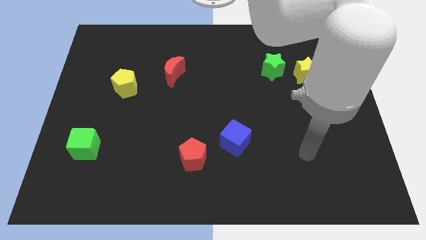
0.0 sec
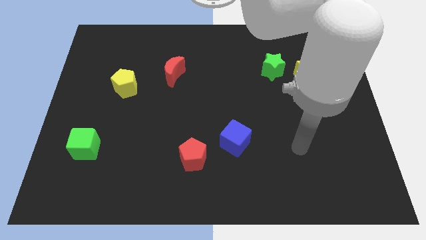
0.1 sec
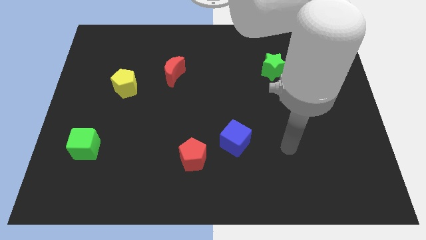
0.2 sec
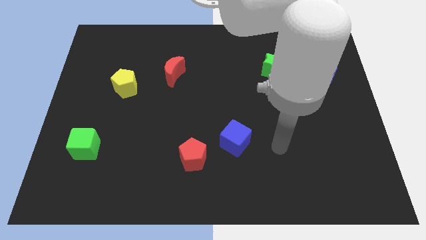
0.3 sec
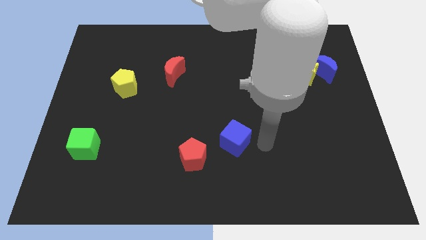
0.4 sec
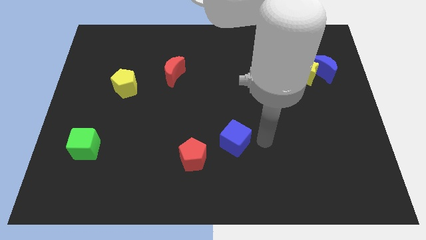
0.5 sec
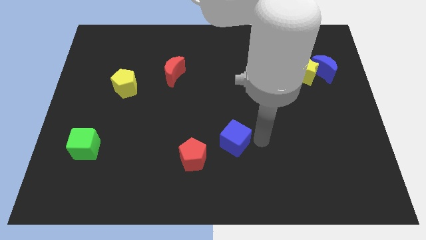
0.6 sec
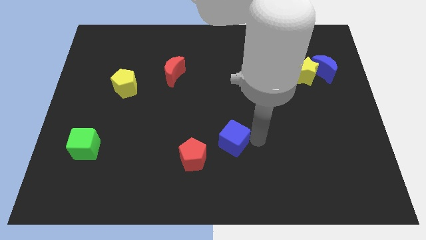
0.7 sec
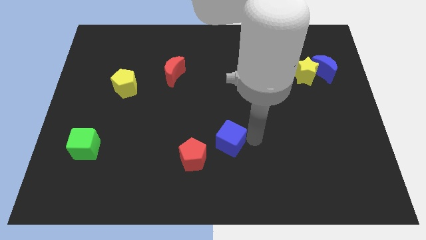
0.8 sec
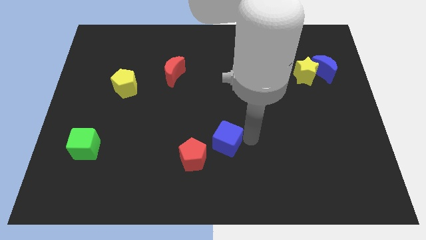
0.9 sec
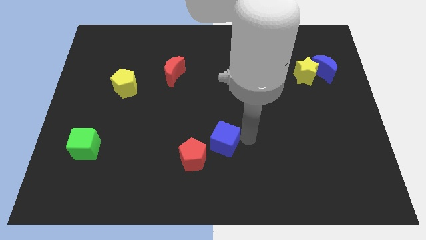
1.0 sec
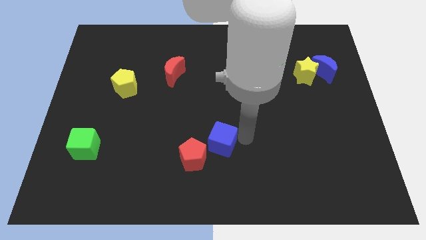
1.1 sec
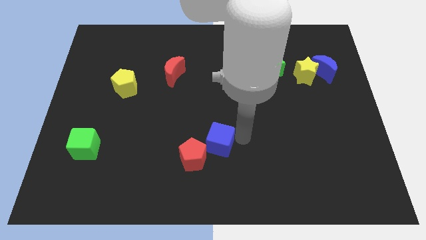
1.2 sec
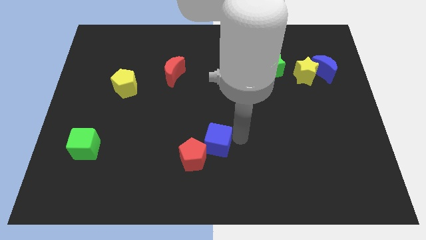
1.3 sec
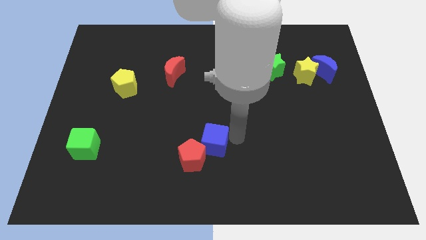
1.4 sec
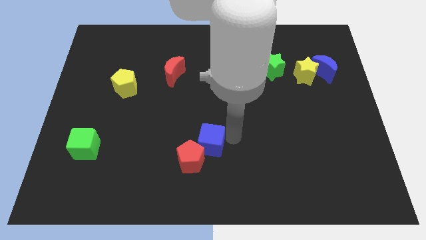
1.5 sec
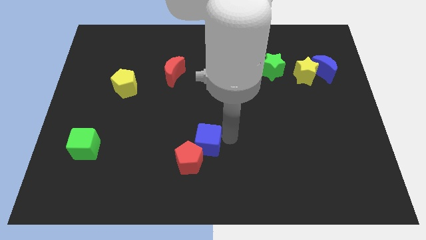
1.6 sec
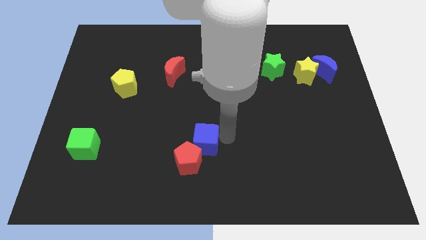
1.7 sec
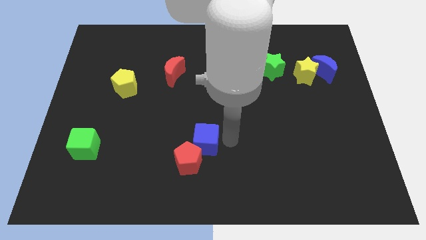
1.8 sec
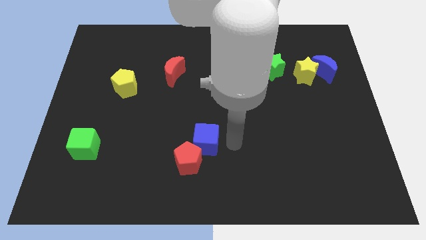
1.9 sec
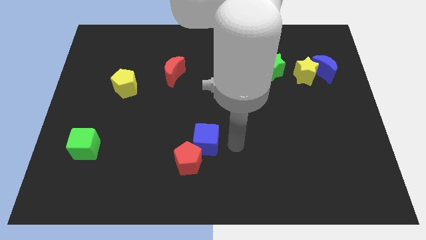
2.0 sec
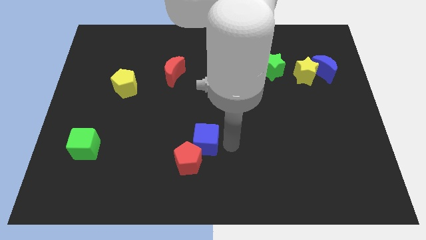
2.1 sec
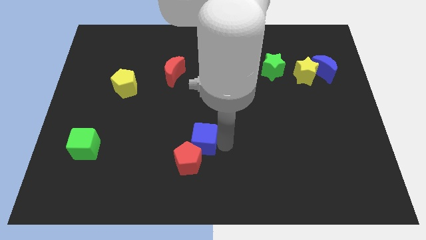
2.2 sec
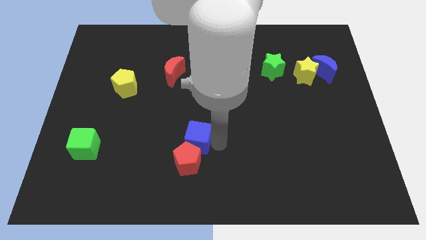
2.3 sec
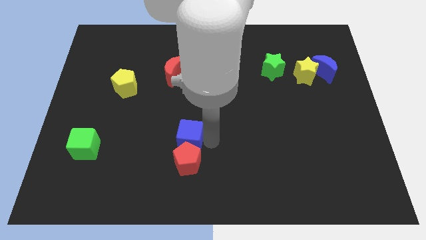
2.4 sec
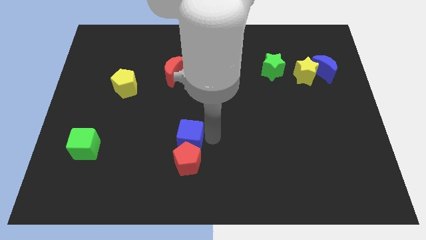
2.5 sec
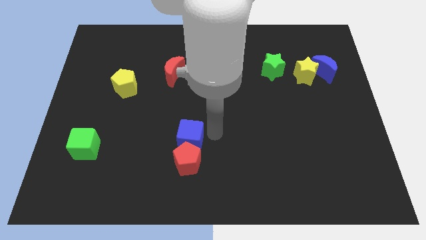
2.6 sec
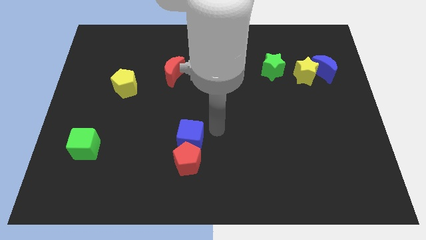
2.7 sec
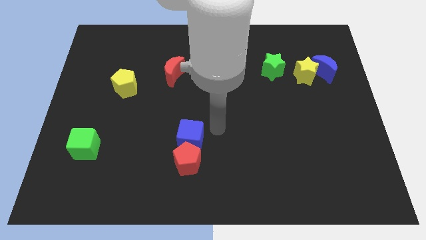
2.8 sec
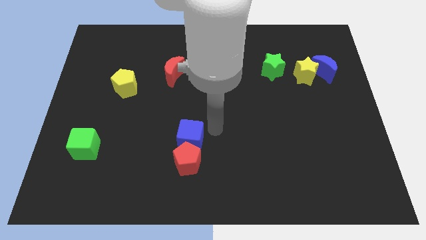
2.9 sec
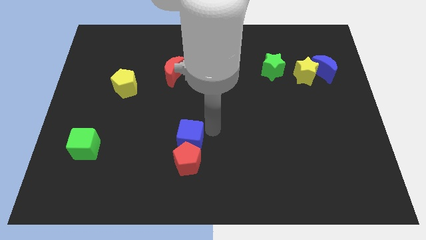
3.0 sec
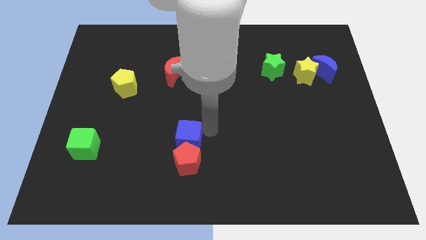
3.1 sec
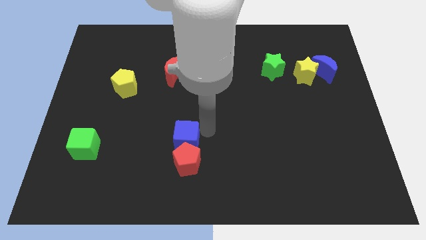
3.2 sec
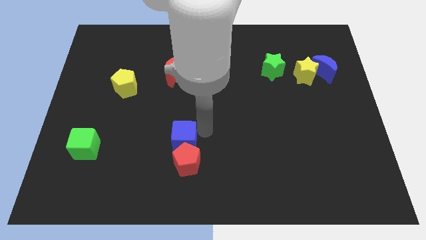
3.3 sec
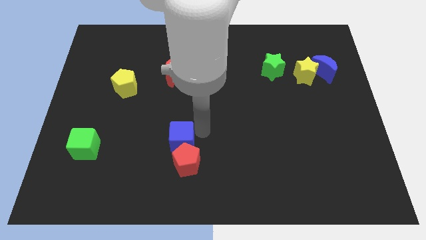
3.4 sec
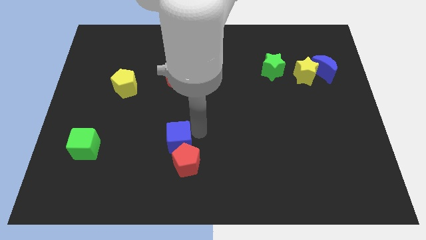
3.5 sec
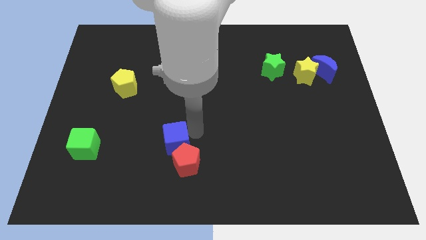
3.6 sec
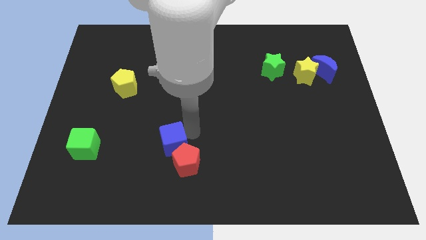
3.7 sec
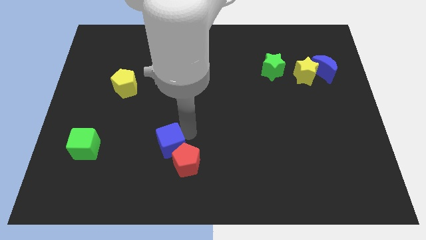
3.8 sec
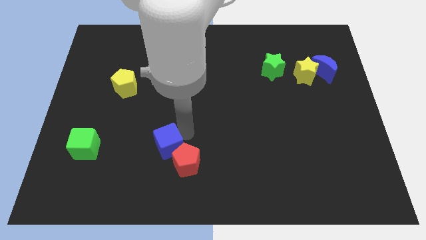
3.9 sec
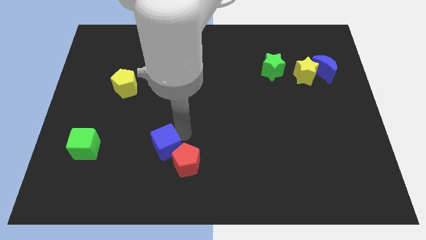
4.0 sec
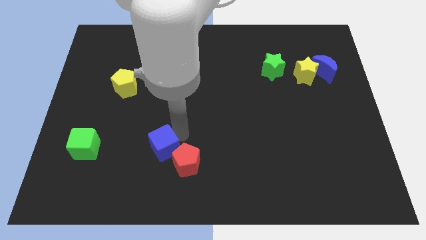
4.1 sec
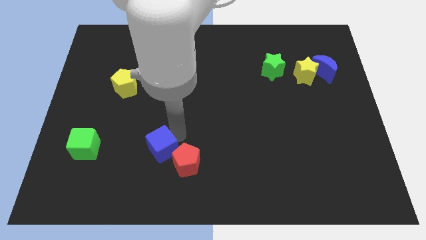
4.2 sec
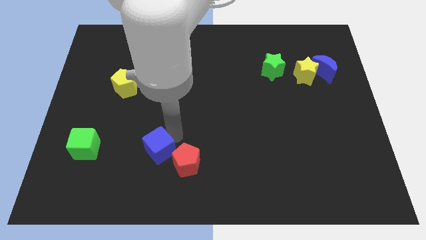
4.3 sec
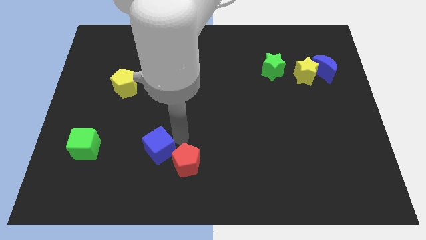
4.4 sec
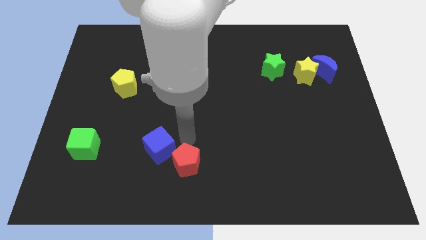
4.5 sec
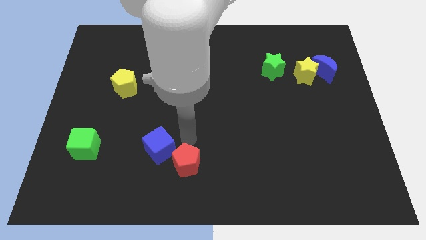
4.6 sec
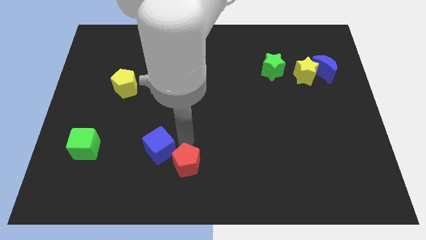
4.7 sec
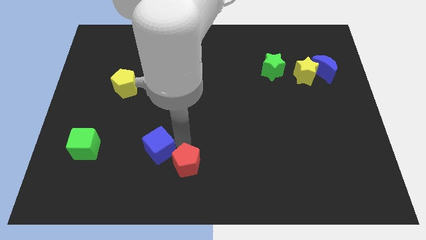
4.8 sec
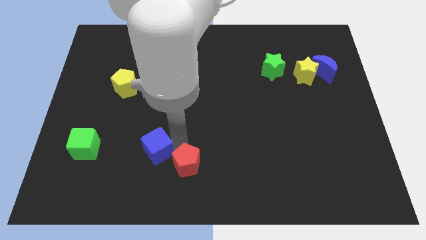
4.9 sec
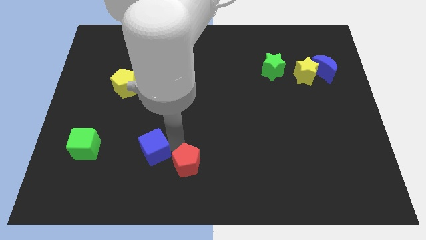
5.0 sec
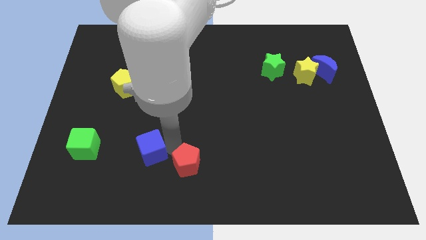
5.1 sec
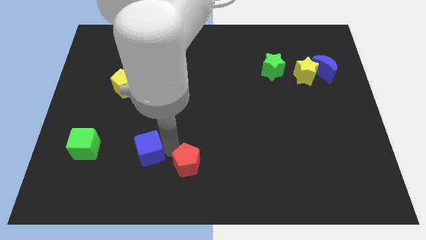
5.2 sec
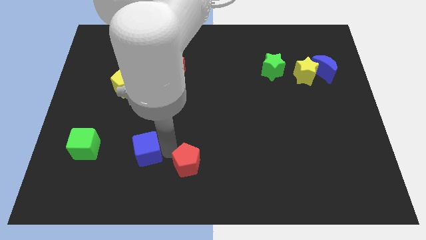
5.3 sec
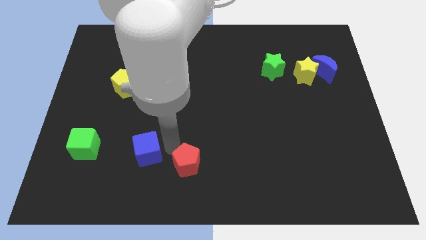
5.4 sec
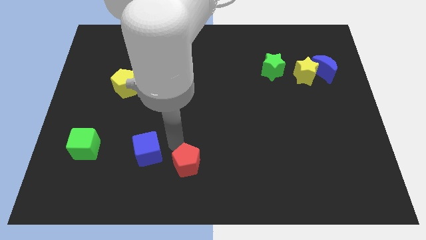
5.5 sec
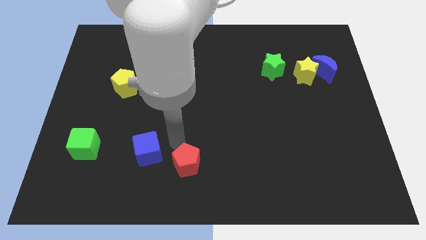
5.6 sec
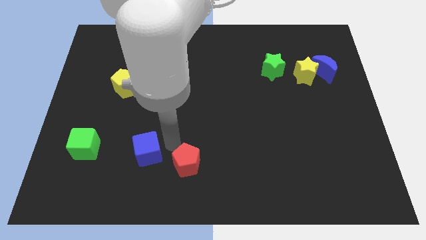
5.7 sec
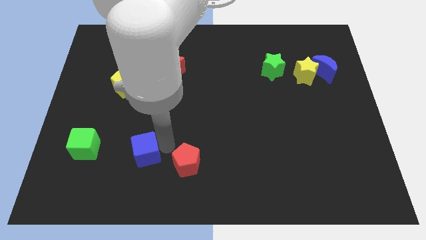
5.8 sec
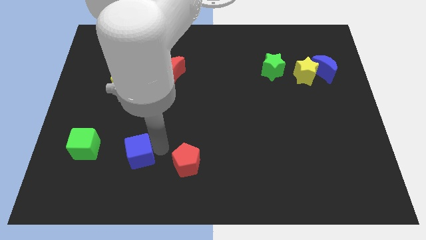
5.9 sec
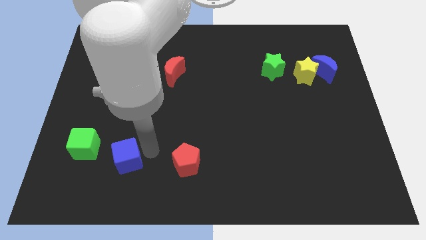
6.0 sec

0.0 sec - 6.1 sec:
slide the blue cube to the bottom right of the green cube

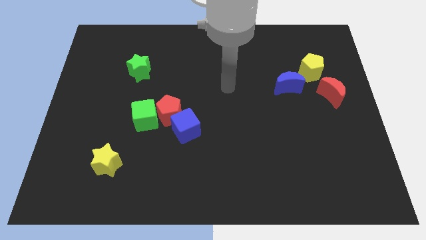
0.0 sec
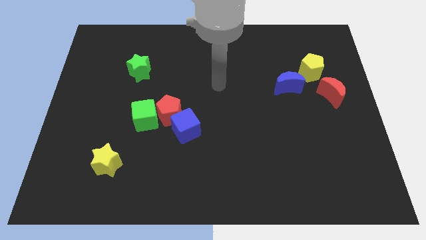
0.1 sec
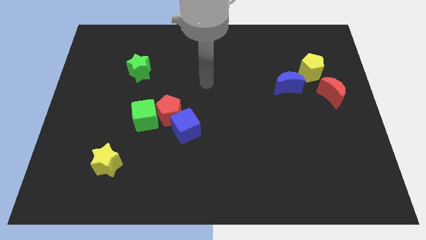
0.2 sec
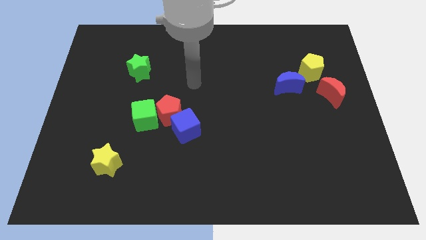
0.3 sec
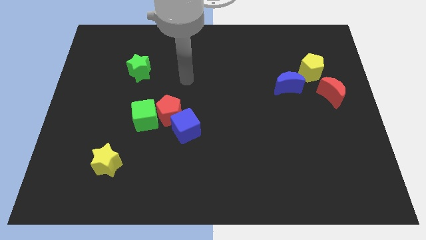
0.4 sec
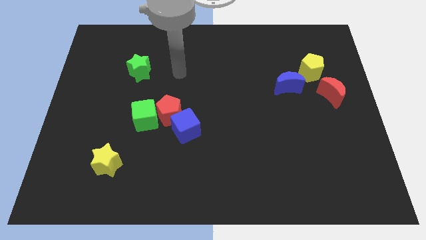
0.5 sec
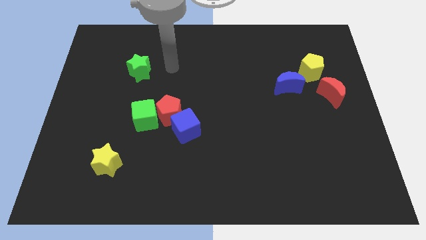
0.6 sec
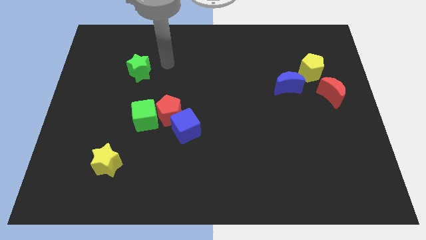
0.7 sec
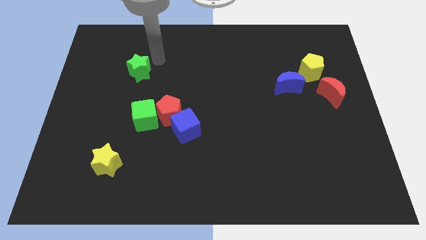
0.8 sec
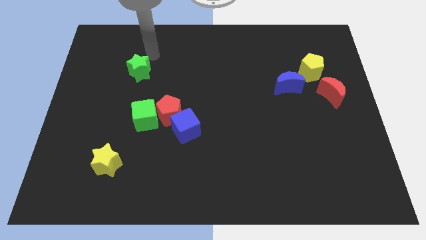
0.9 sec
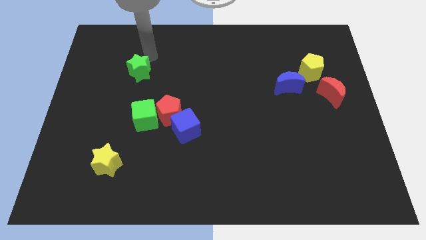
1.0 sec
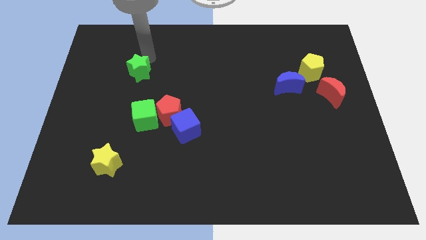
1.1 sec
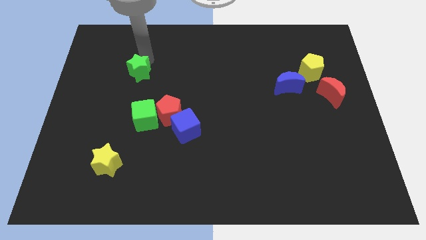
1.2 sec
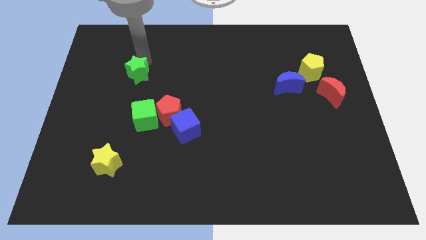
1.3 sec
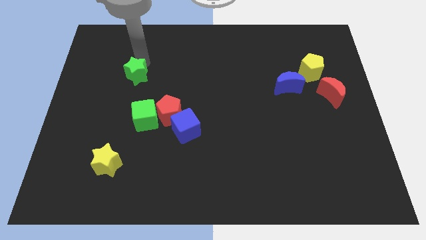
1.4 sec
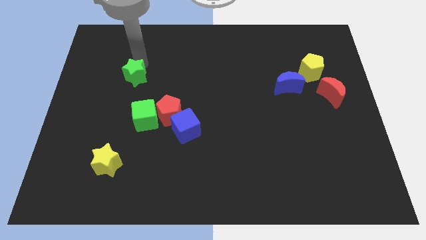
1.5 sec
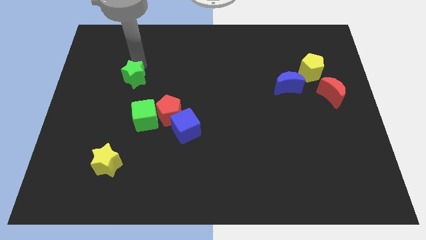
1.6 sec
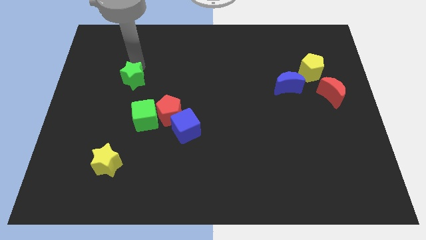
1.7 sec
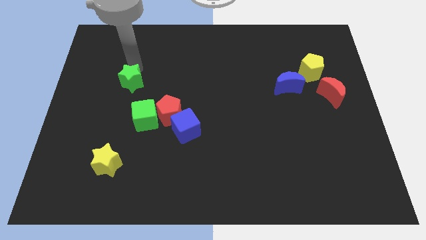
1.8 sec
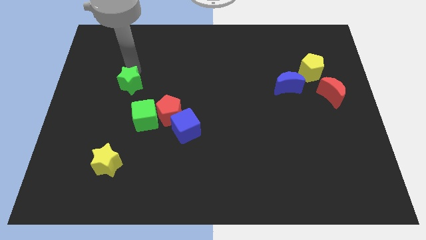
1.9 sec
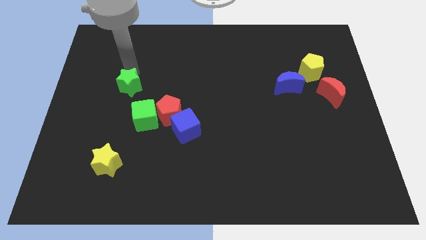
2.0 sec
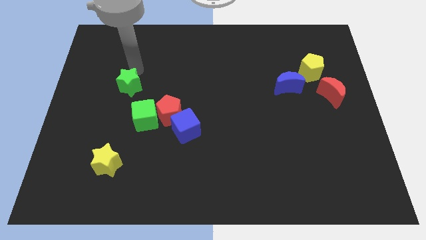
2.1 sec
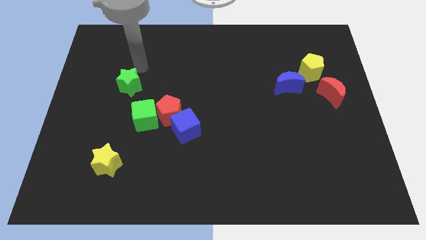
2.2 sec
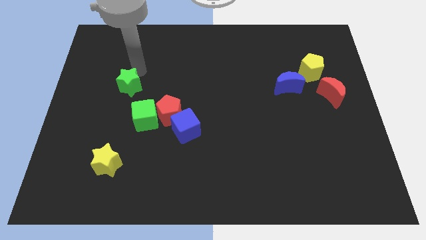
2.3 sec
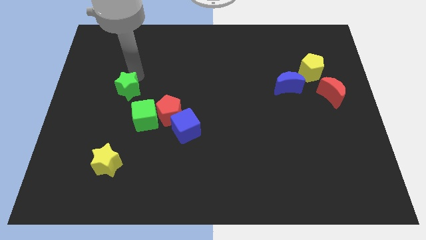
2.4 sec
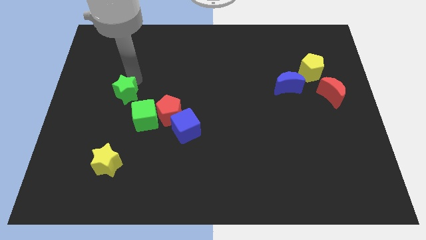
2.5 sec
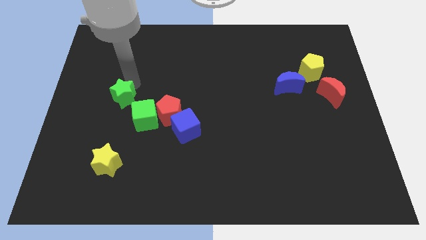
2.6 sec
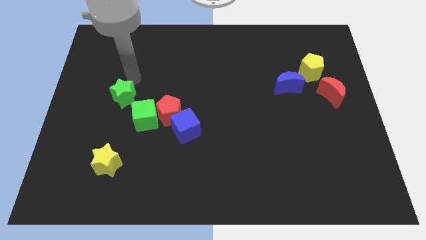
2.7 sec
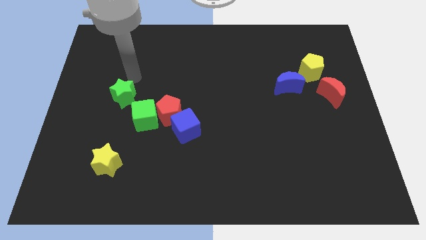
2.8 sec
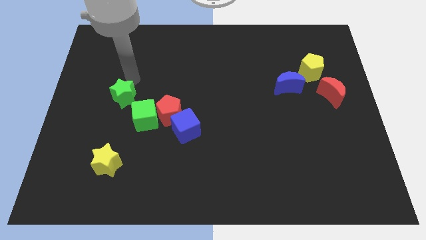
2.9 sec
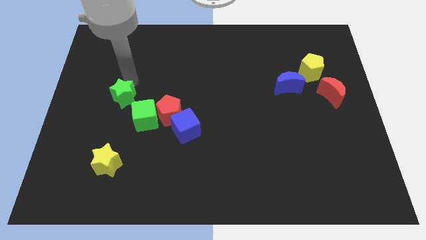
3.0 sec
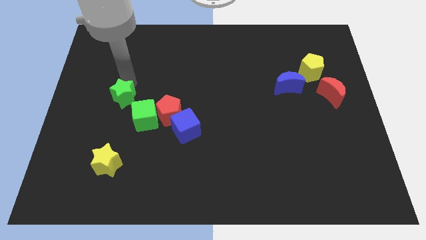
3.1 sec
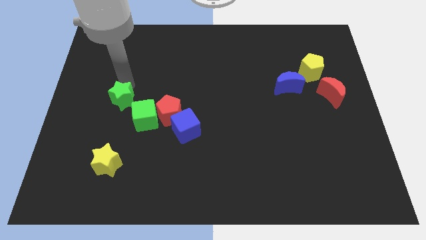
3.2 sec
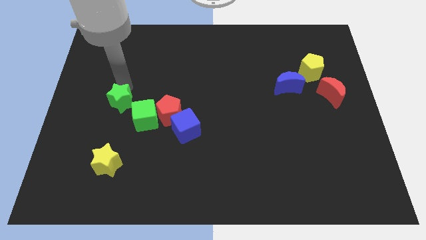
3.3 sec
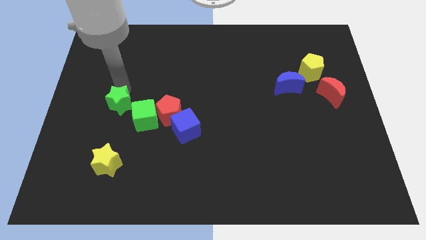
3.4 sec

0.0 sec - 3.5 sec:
push the green star to the top of the yellow star
